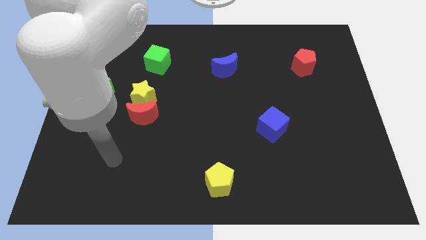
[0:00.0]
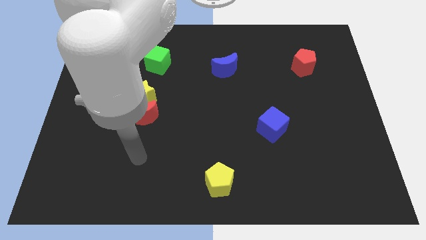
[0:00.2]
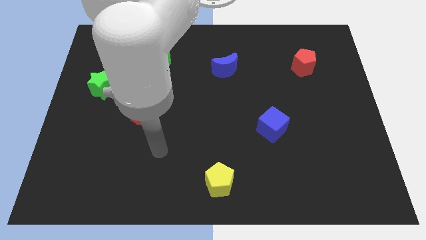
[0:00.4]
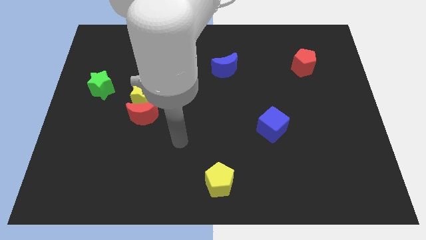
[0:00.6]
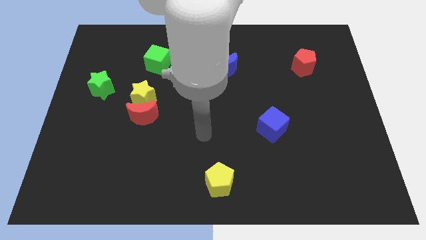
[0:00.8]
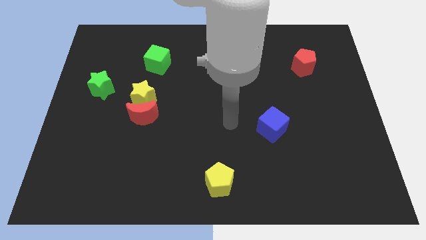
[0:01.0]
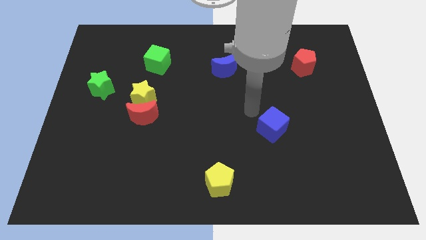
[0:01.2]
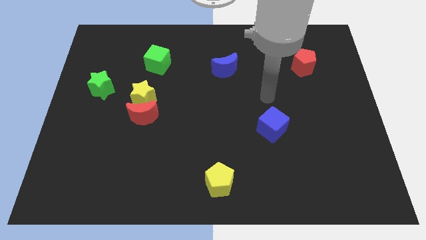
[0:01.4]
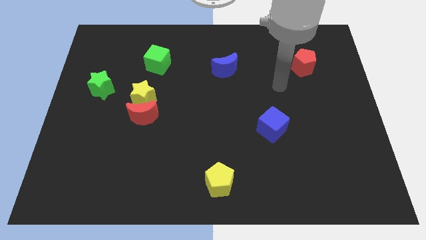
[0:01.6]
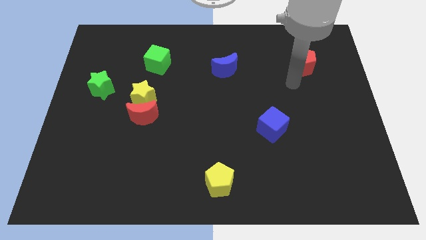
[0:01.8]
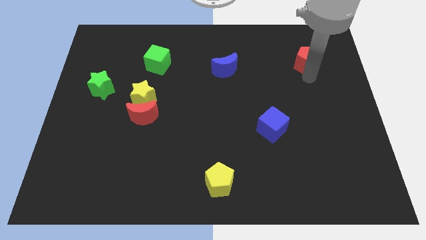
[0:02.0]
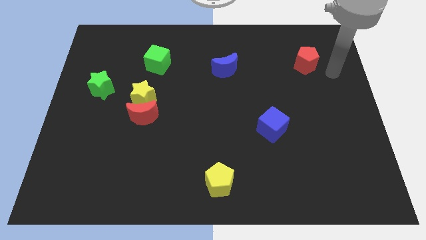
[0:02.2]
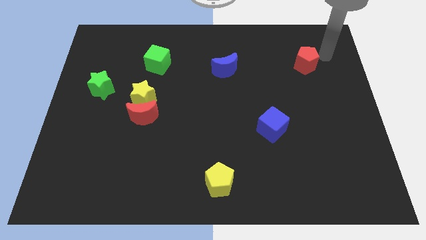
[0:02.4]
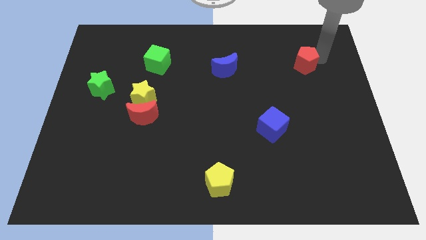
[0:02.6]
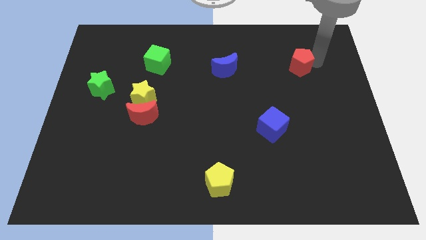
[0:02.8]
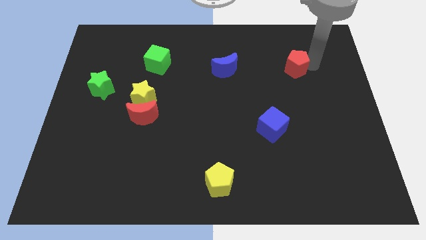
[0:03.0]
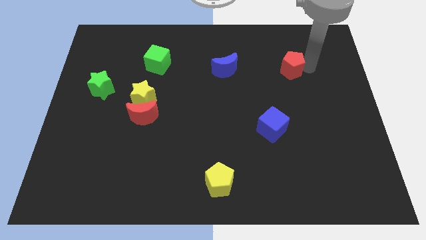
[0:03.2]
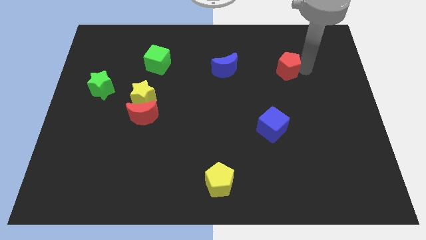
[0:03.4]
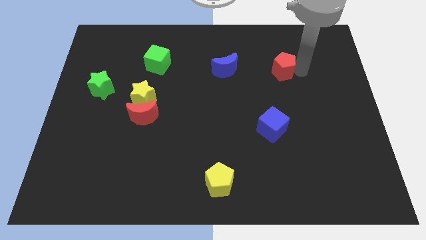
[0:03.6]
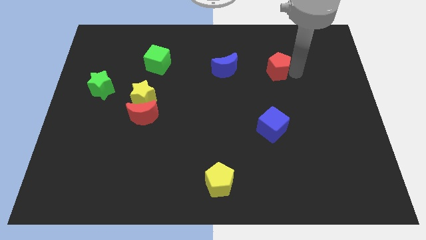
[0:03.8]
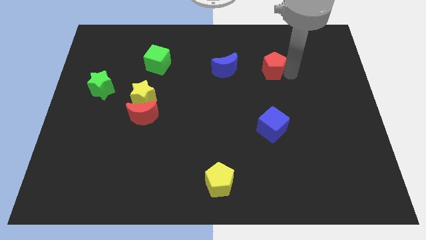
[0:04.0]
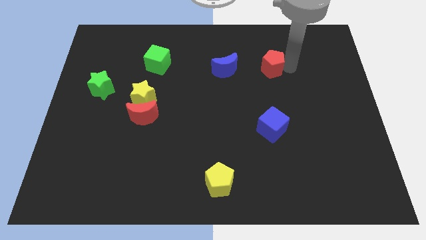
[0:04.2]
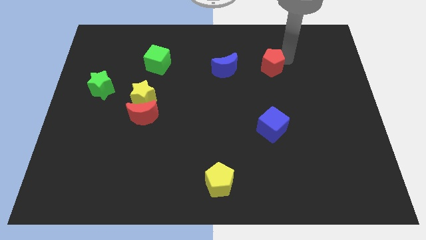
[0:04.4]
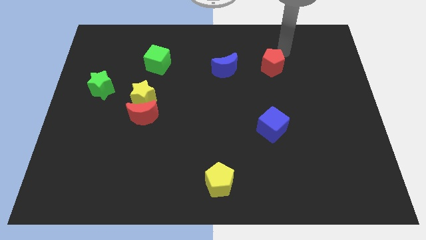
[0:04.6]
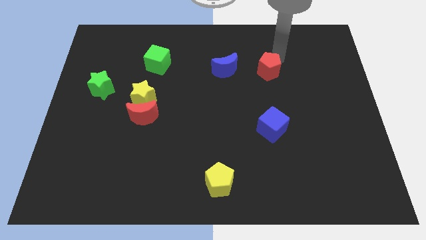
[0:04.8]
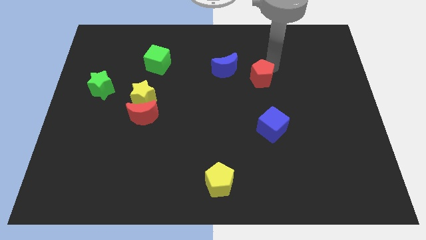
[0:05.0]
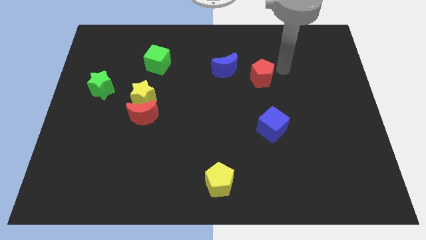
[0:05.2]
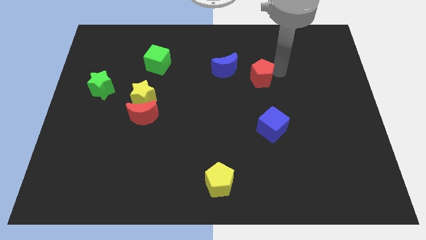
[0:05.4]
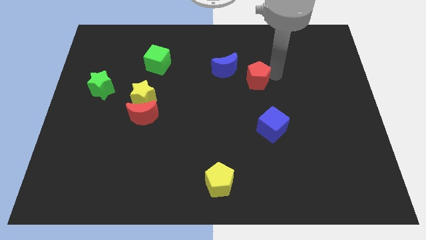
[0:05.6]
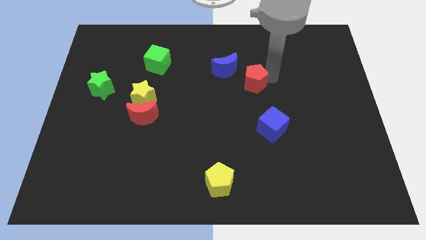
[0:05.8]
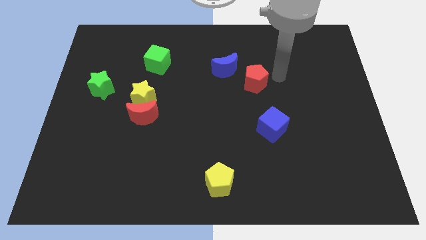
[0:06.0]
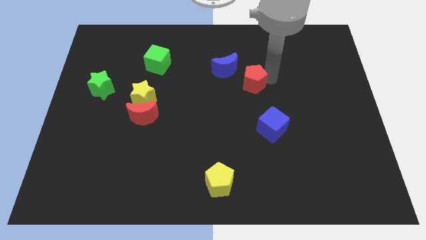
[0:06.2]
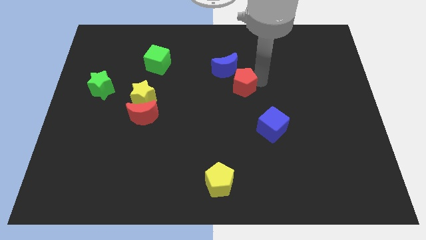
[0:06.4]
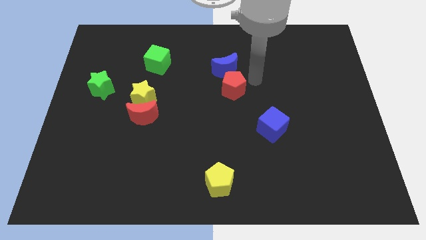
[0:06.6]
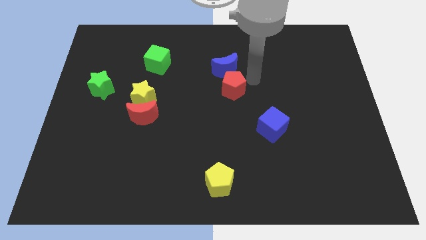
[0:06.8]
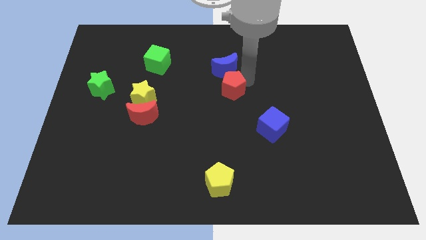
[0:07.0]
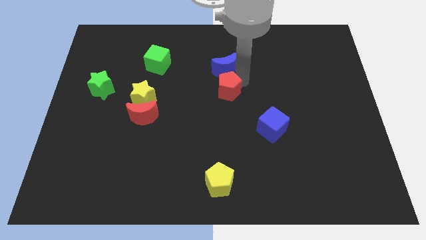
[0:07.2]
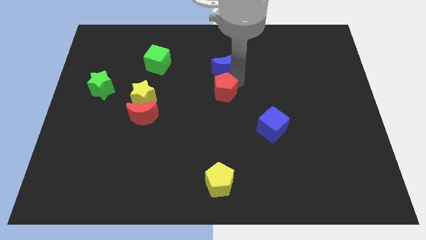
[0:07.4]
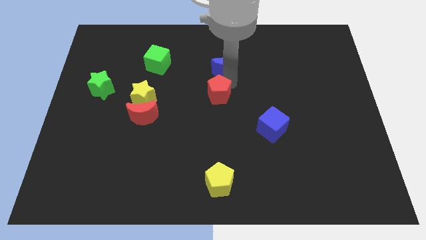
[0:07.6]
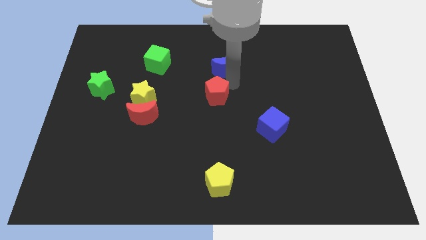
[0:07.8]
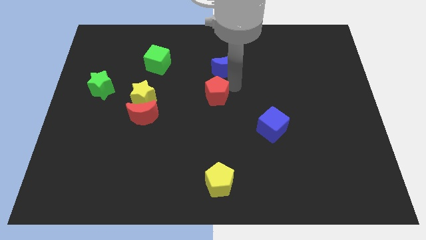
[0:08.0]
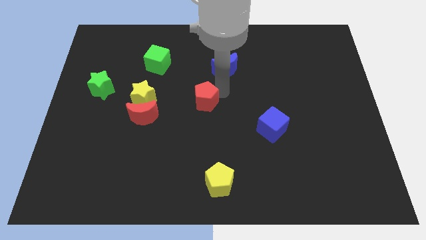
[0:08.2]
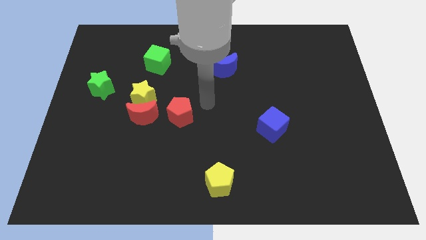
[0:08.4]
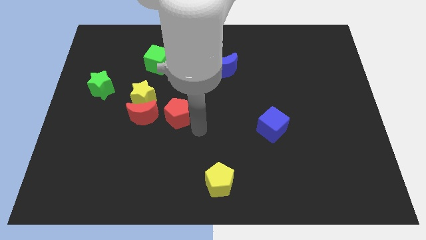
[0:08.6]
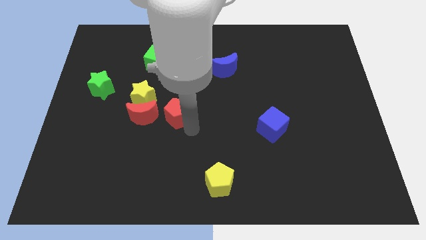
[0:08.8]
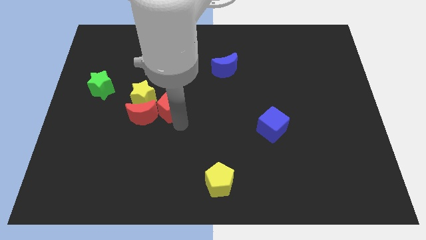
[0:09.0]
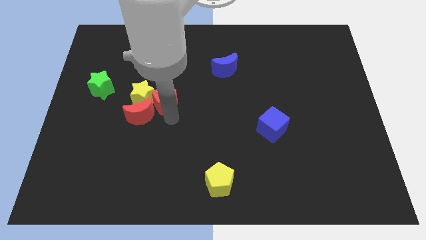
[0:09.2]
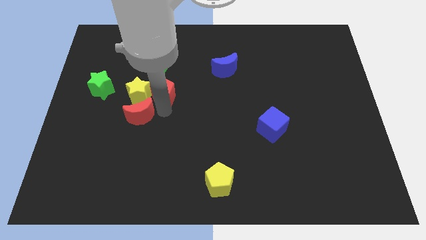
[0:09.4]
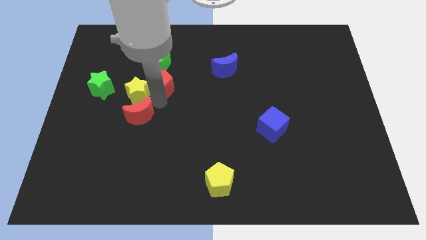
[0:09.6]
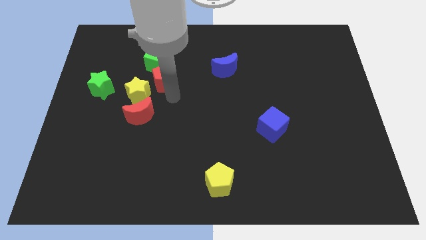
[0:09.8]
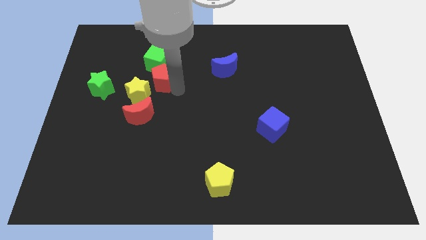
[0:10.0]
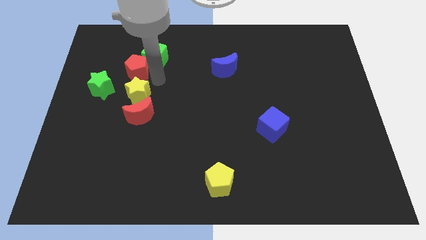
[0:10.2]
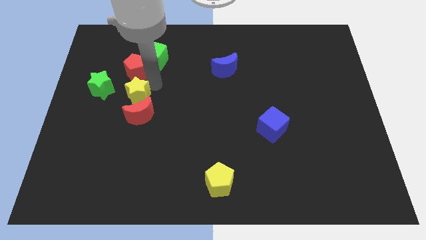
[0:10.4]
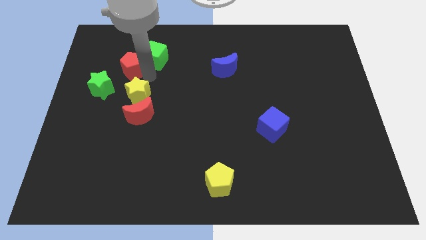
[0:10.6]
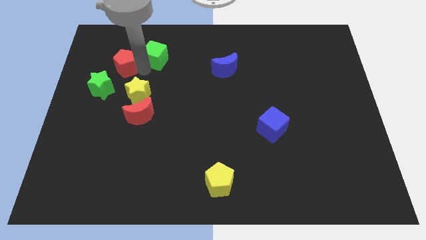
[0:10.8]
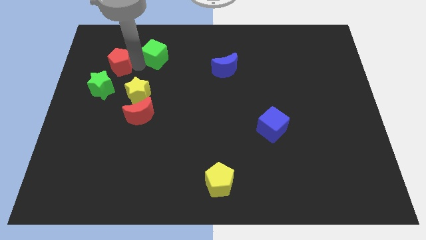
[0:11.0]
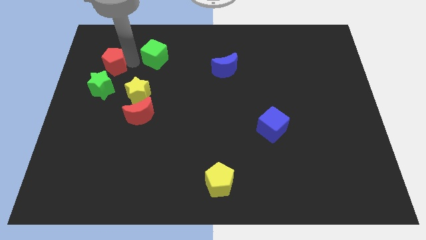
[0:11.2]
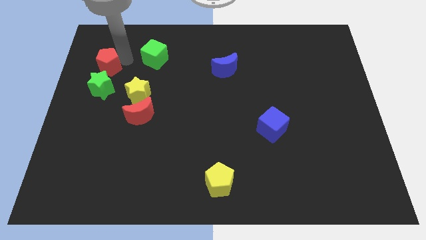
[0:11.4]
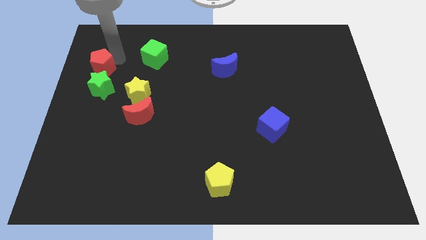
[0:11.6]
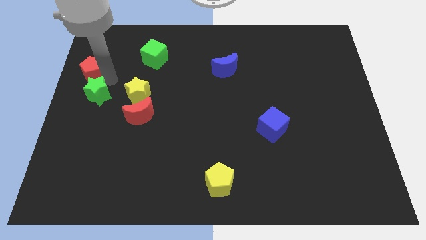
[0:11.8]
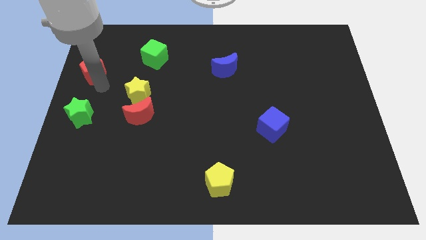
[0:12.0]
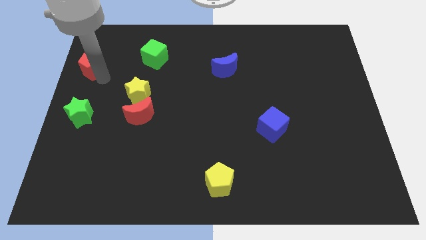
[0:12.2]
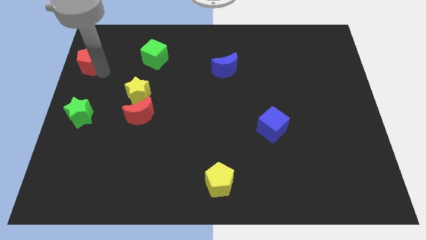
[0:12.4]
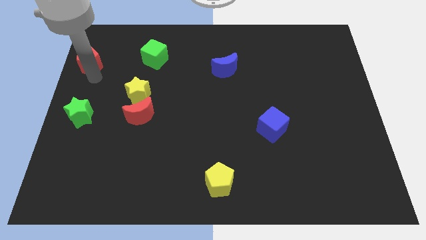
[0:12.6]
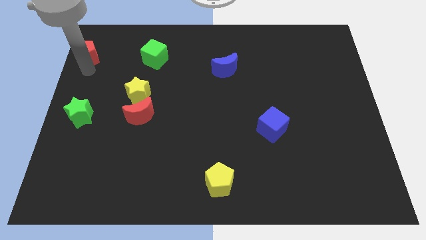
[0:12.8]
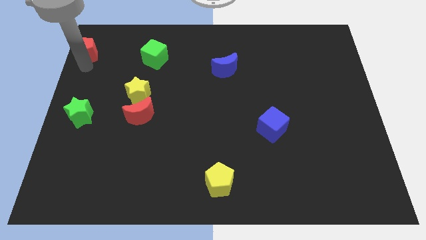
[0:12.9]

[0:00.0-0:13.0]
push the red pentagon to the top left corner
